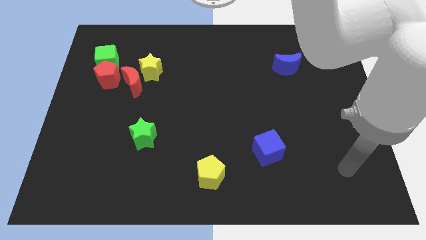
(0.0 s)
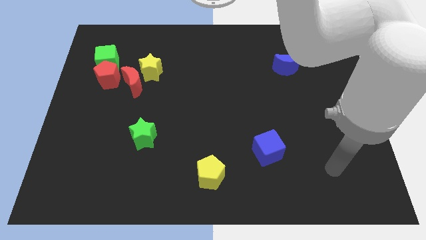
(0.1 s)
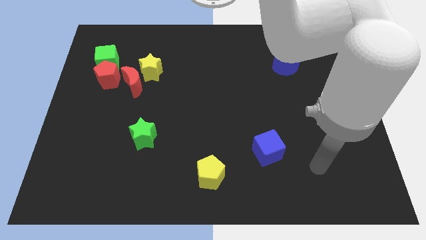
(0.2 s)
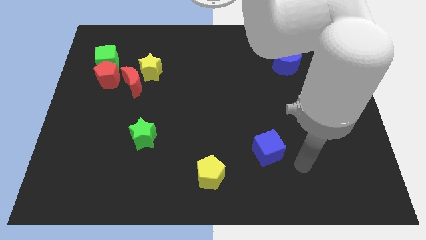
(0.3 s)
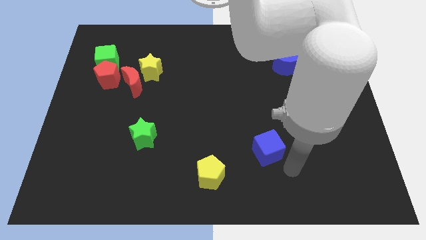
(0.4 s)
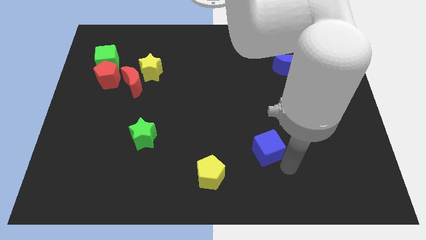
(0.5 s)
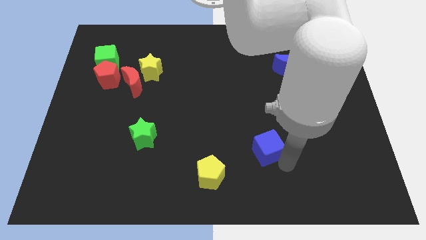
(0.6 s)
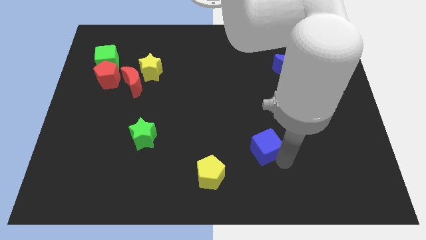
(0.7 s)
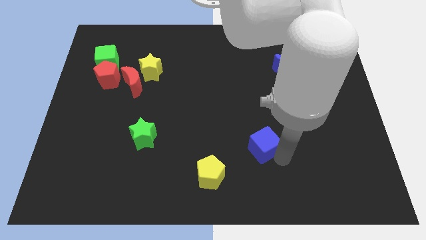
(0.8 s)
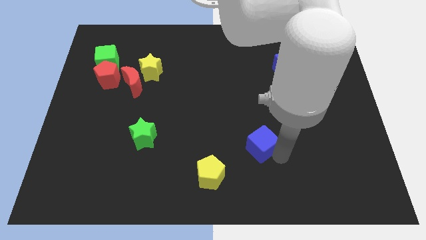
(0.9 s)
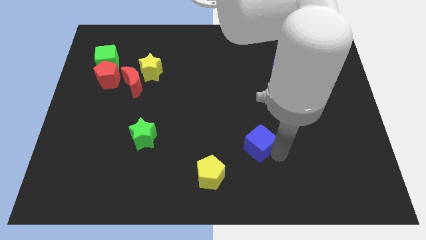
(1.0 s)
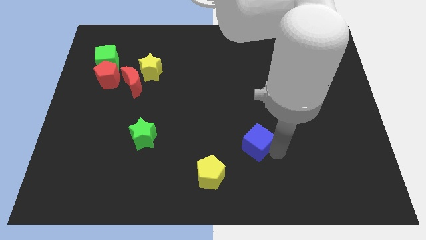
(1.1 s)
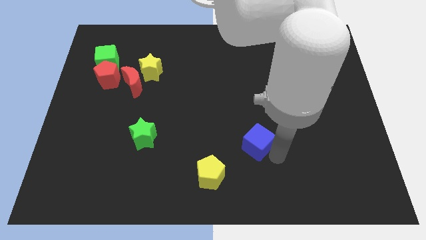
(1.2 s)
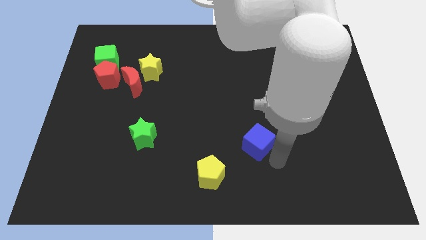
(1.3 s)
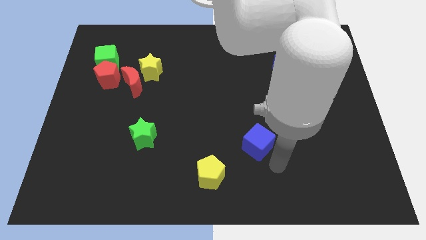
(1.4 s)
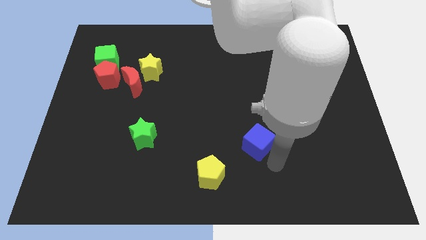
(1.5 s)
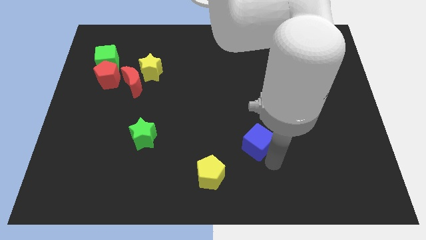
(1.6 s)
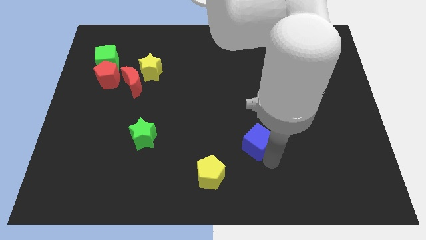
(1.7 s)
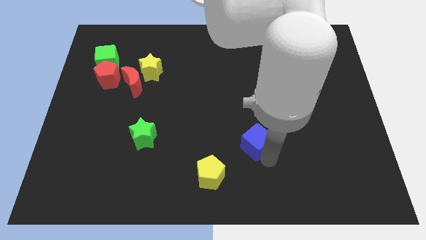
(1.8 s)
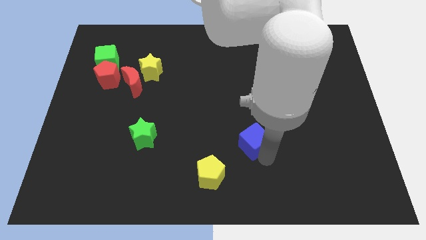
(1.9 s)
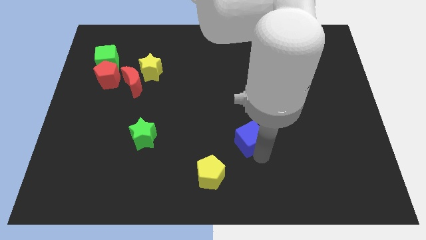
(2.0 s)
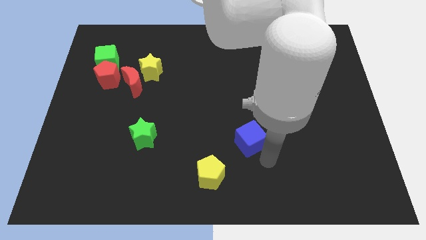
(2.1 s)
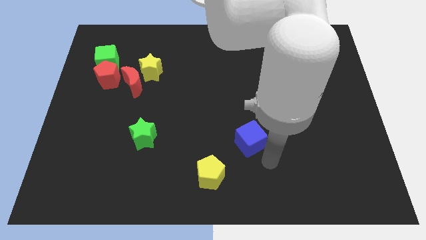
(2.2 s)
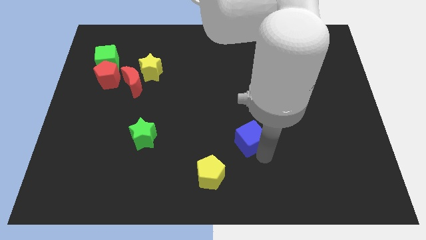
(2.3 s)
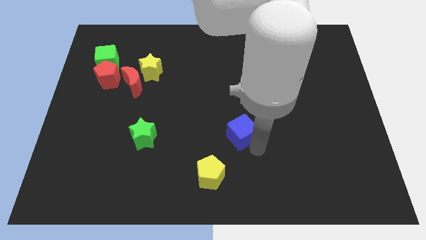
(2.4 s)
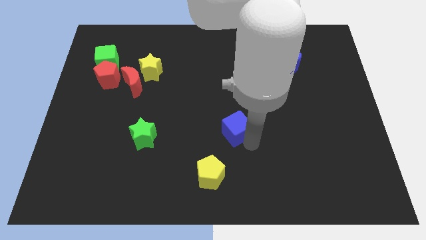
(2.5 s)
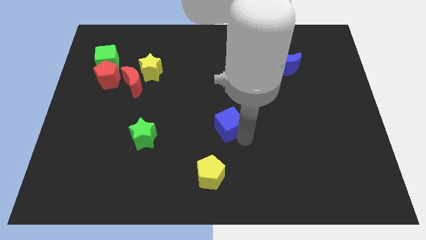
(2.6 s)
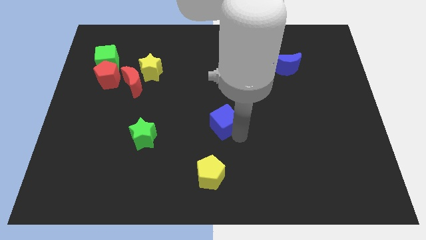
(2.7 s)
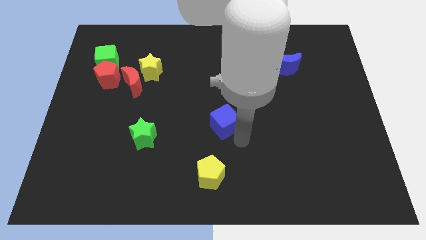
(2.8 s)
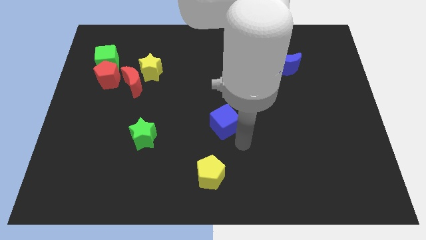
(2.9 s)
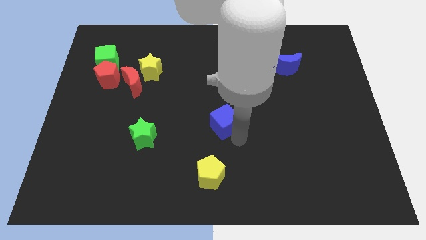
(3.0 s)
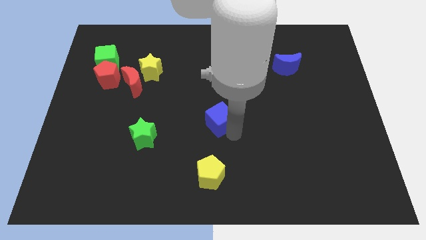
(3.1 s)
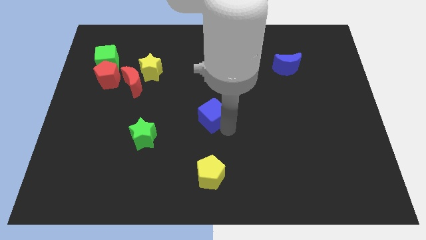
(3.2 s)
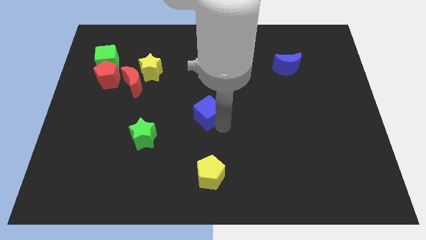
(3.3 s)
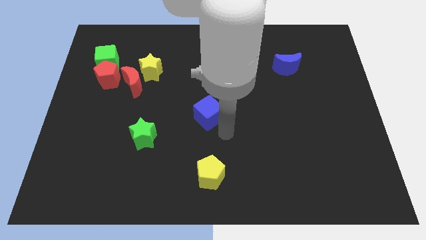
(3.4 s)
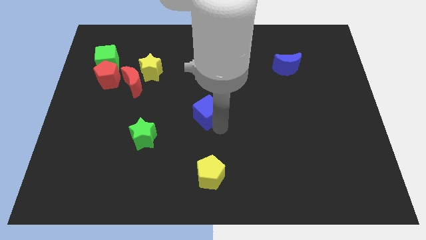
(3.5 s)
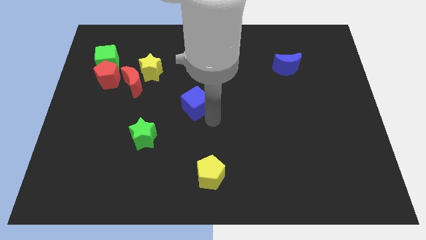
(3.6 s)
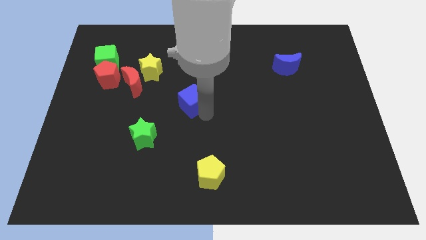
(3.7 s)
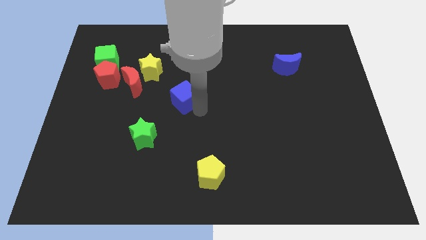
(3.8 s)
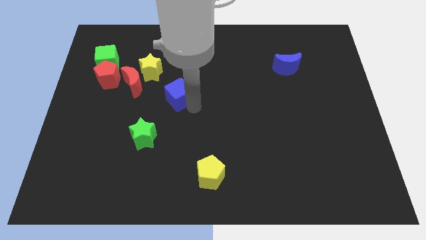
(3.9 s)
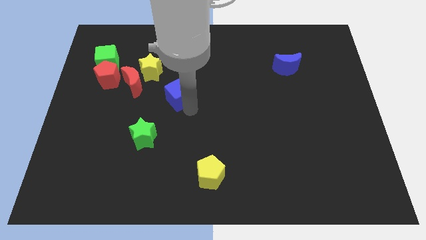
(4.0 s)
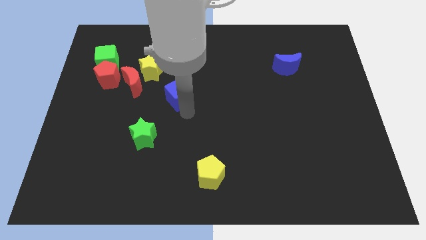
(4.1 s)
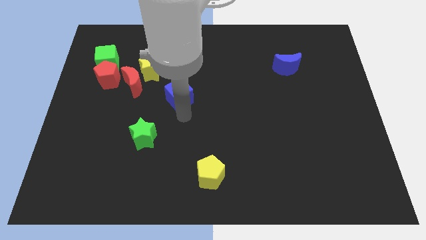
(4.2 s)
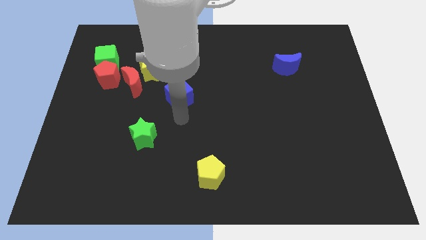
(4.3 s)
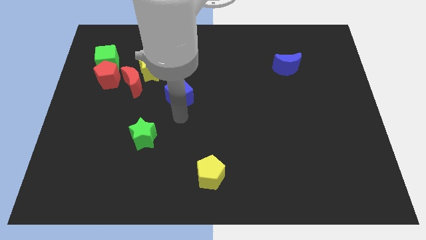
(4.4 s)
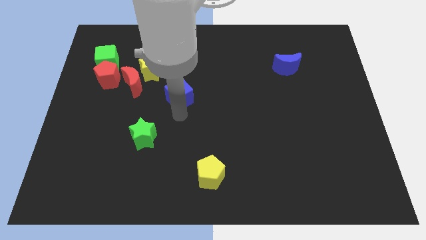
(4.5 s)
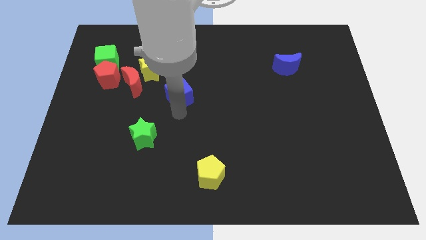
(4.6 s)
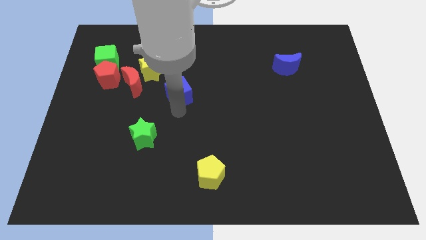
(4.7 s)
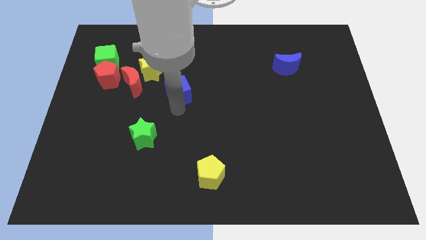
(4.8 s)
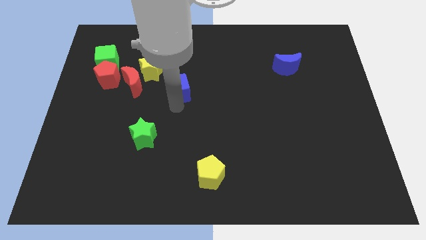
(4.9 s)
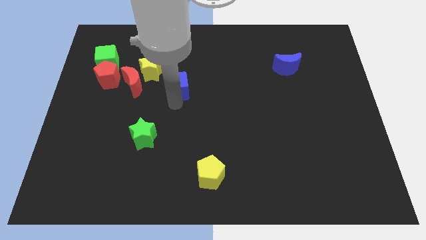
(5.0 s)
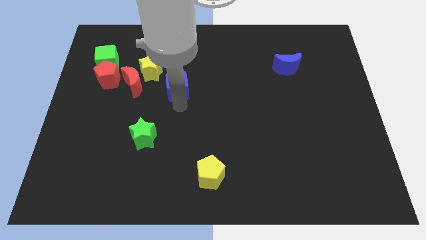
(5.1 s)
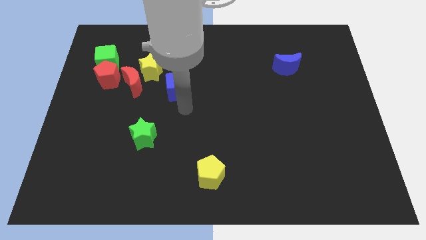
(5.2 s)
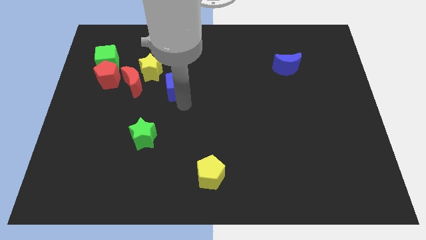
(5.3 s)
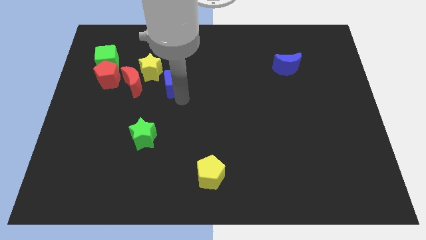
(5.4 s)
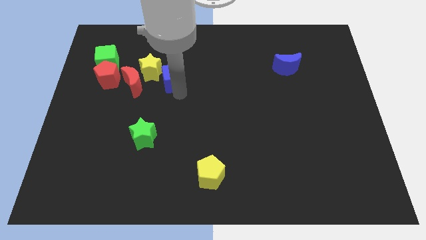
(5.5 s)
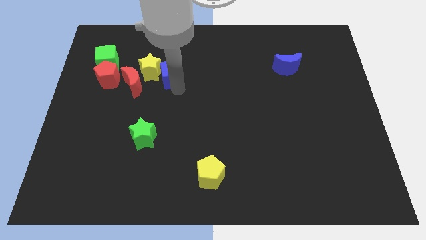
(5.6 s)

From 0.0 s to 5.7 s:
slide the blue cube to the top right side of the red moon

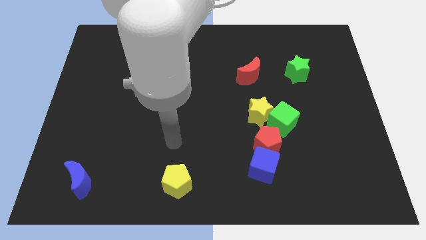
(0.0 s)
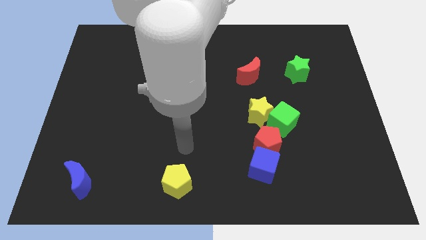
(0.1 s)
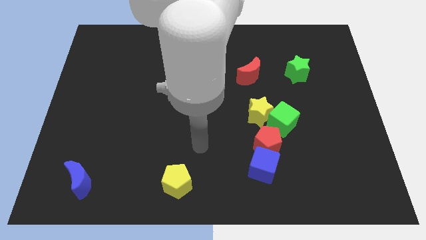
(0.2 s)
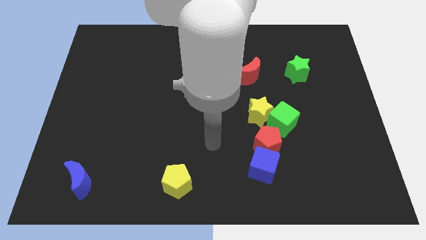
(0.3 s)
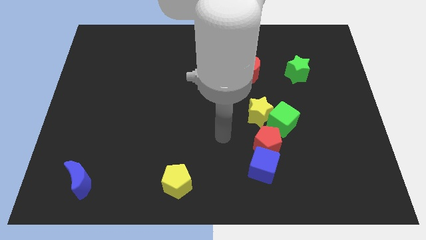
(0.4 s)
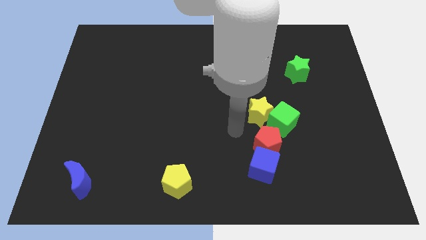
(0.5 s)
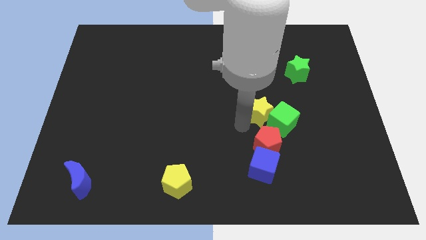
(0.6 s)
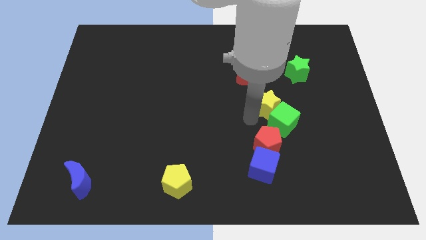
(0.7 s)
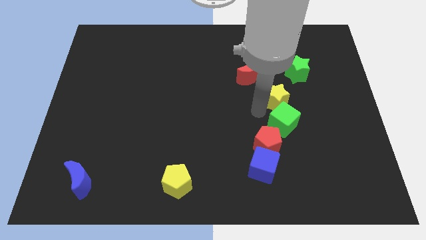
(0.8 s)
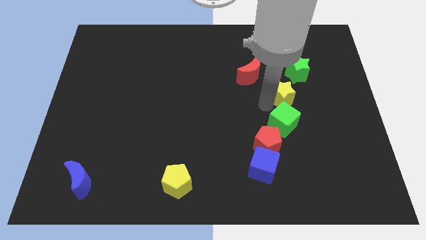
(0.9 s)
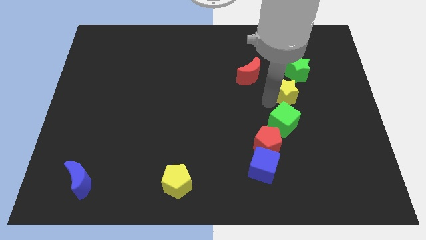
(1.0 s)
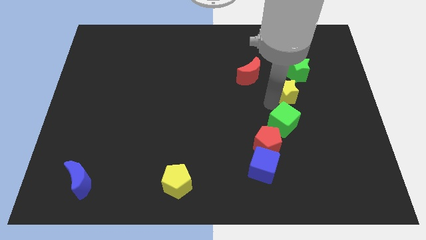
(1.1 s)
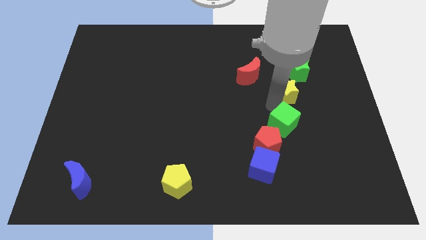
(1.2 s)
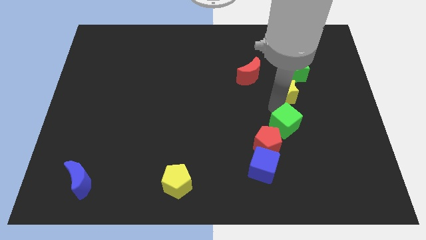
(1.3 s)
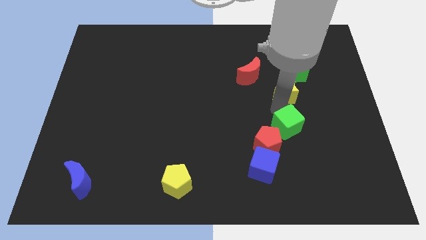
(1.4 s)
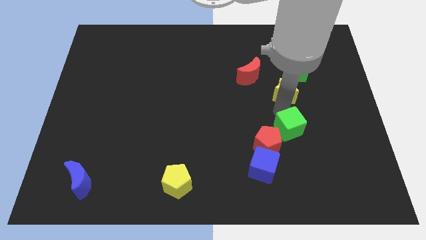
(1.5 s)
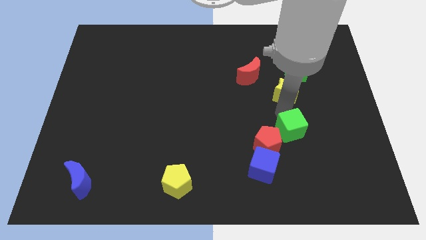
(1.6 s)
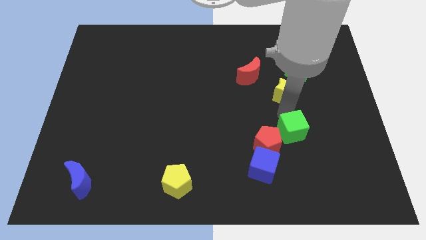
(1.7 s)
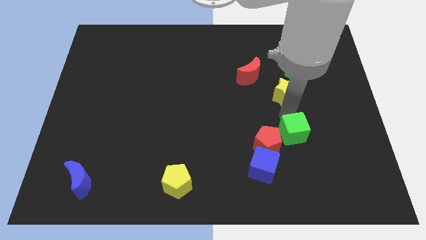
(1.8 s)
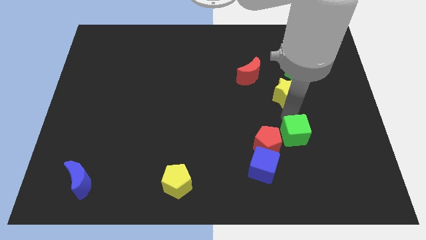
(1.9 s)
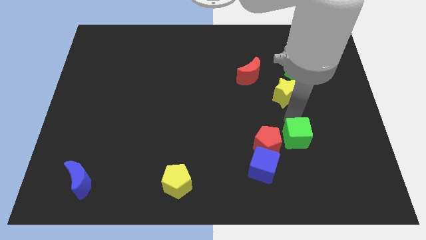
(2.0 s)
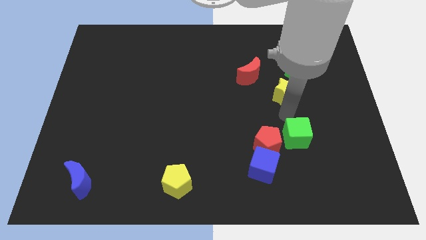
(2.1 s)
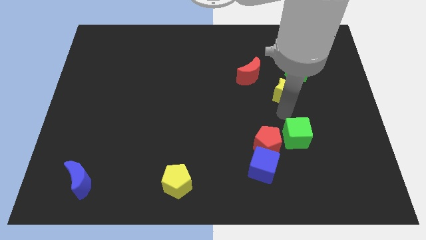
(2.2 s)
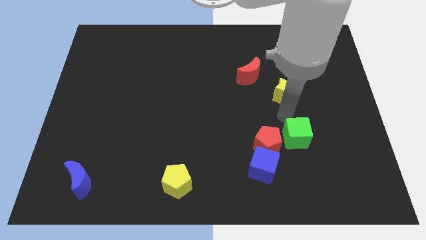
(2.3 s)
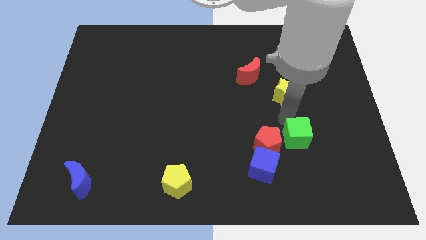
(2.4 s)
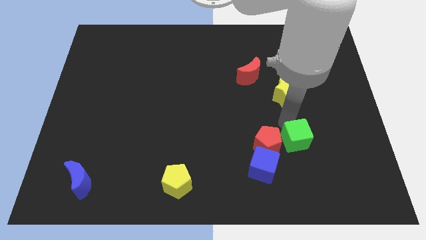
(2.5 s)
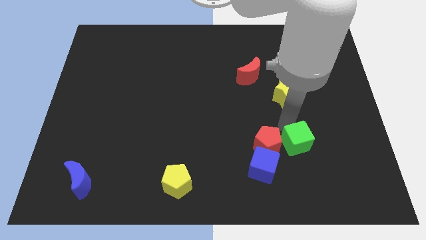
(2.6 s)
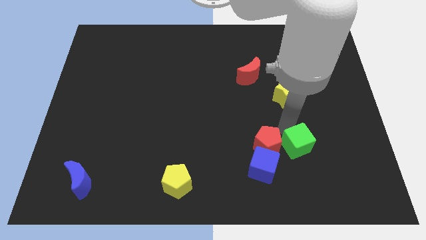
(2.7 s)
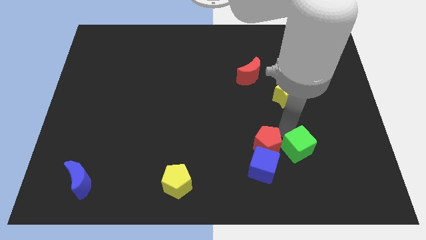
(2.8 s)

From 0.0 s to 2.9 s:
slide the green cube to the right side of the blue cube
